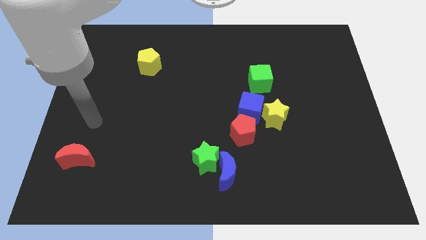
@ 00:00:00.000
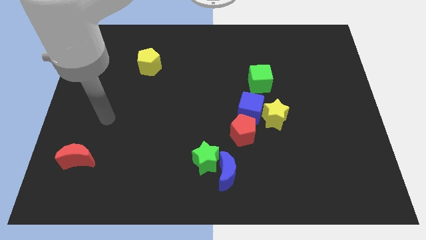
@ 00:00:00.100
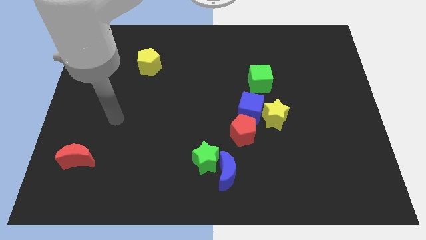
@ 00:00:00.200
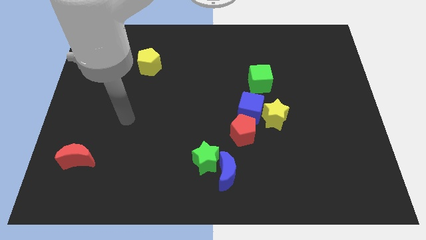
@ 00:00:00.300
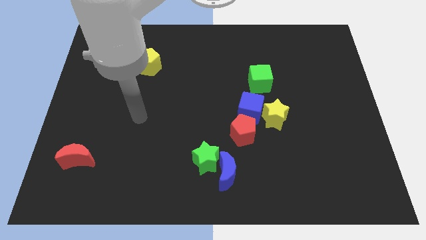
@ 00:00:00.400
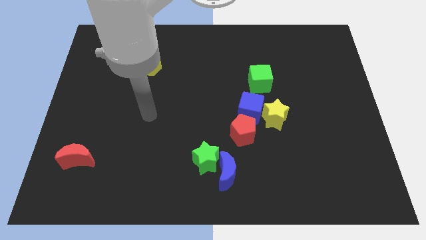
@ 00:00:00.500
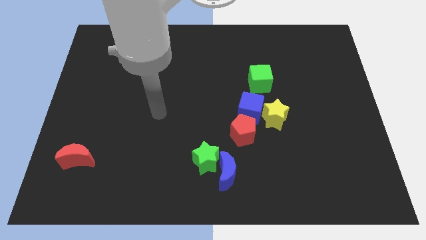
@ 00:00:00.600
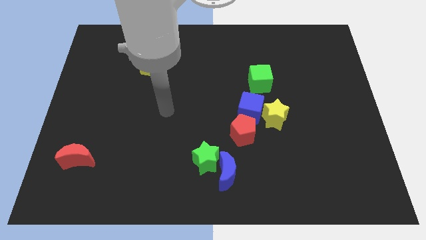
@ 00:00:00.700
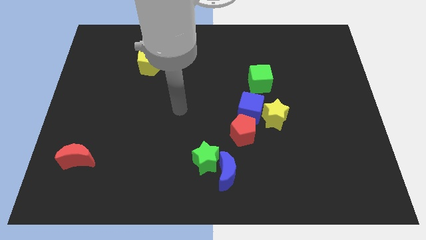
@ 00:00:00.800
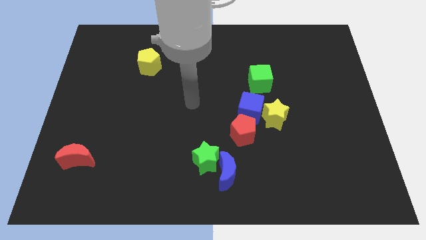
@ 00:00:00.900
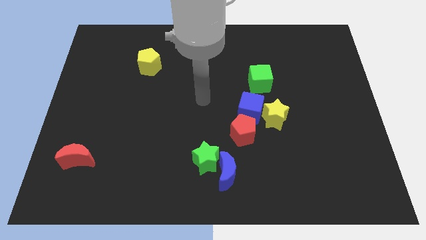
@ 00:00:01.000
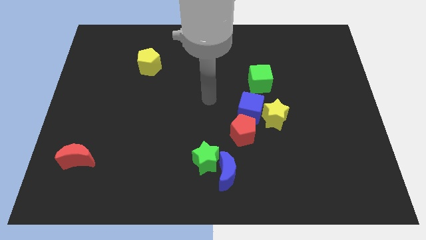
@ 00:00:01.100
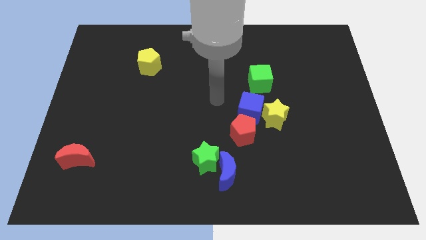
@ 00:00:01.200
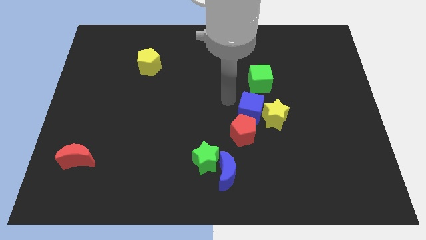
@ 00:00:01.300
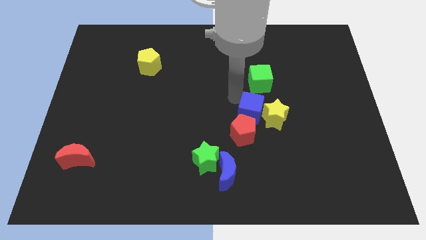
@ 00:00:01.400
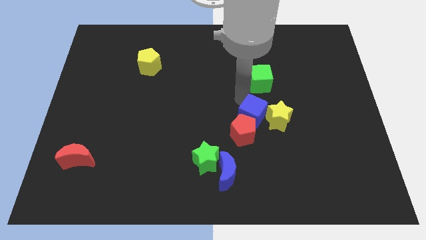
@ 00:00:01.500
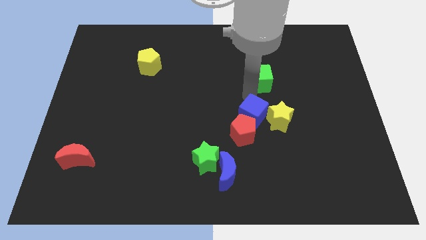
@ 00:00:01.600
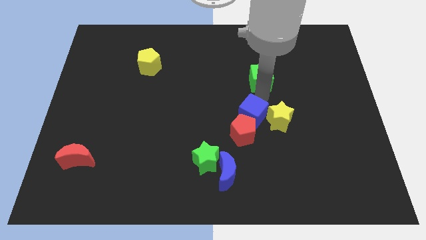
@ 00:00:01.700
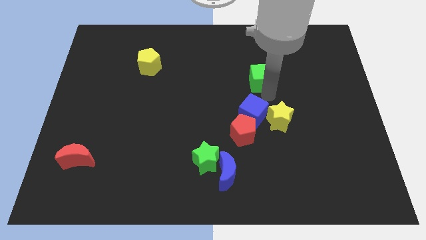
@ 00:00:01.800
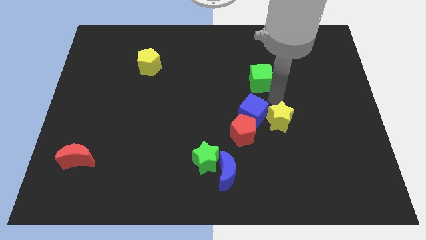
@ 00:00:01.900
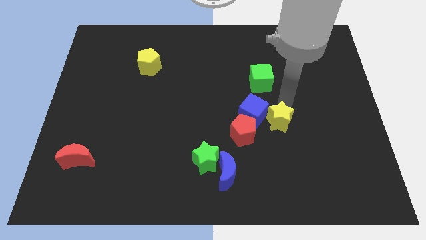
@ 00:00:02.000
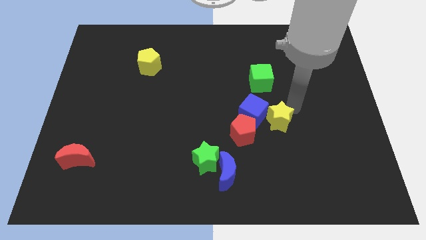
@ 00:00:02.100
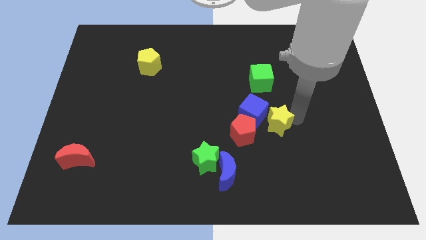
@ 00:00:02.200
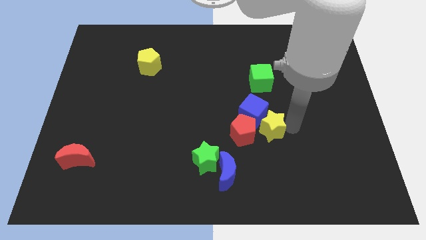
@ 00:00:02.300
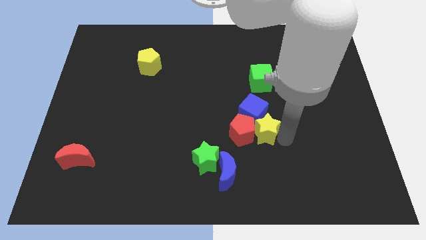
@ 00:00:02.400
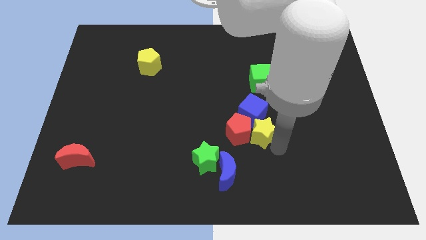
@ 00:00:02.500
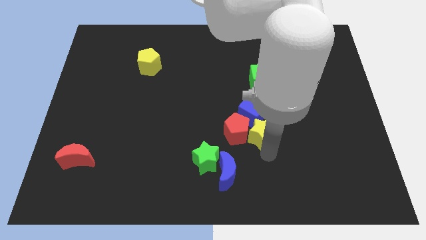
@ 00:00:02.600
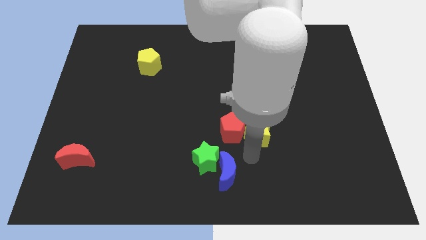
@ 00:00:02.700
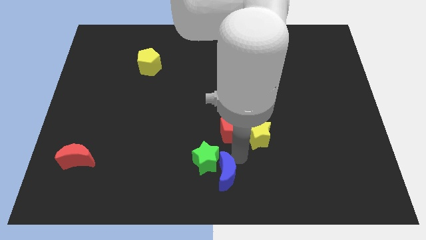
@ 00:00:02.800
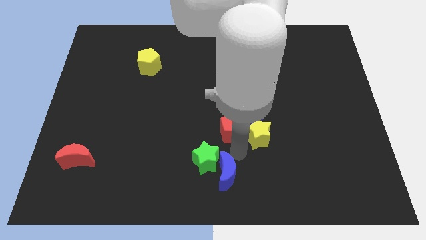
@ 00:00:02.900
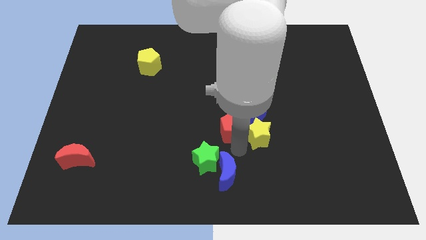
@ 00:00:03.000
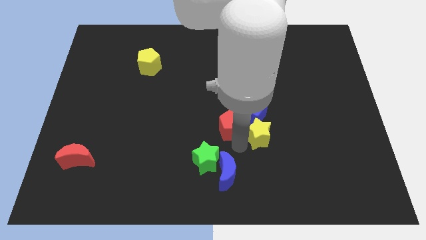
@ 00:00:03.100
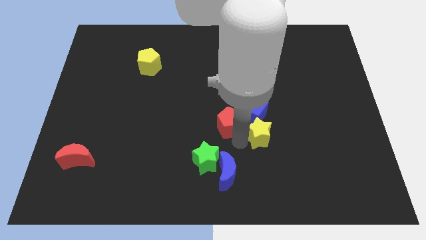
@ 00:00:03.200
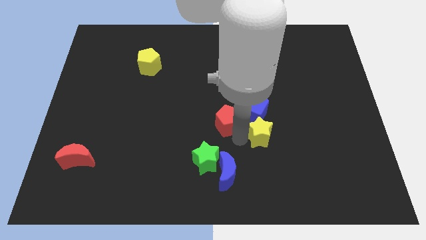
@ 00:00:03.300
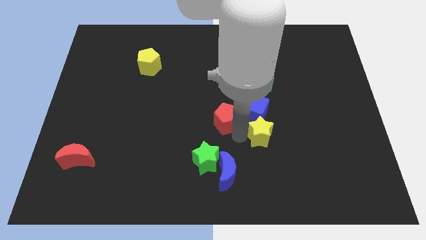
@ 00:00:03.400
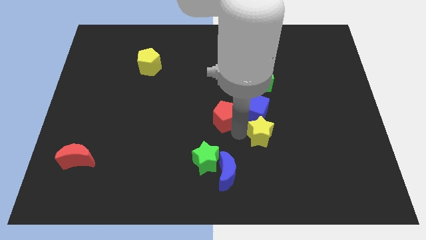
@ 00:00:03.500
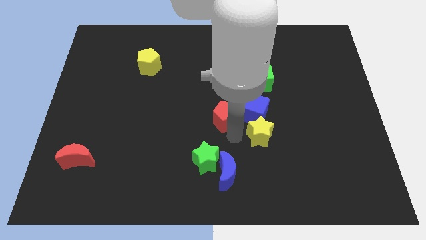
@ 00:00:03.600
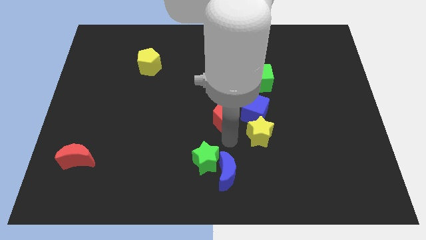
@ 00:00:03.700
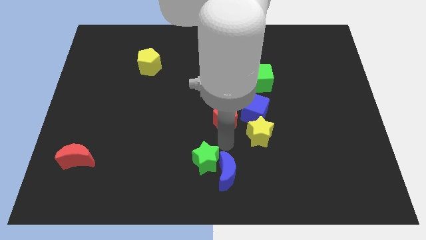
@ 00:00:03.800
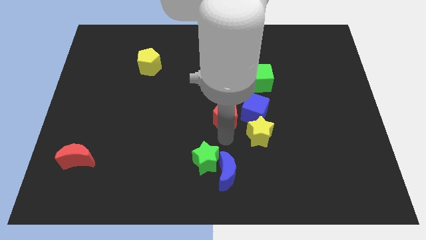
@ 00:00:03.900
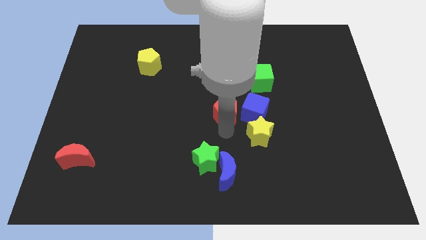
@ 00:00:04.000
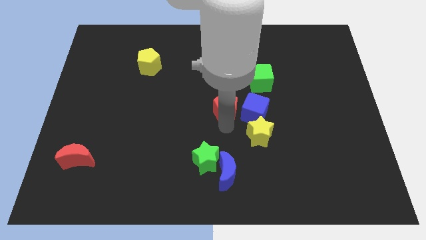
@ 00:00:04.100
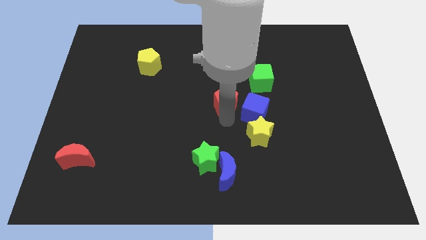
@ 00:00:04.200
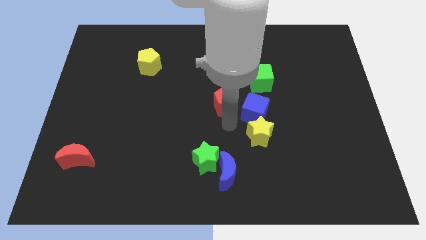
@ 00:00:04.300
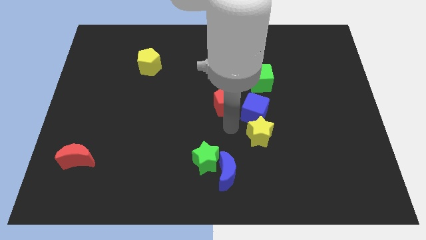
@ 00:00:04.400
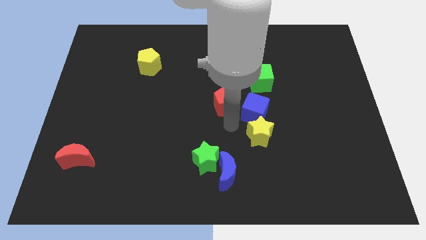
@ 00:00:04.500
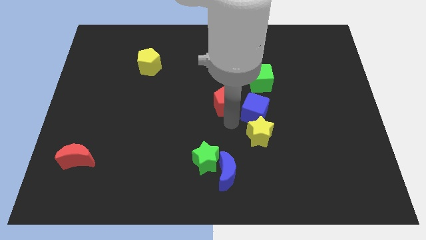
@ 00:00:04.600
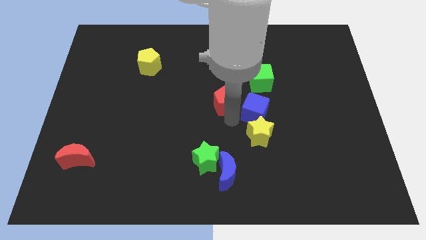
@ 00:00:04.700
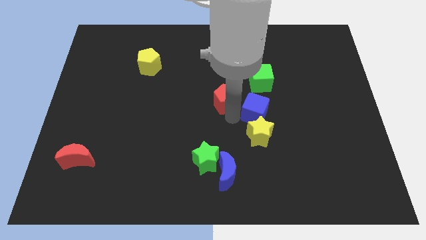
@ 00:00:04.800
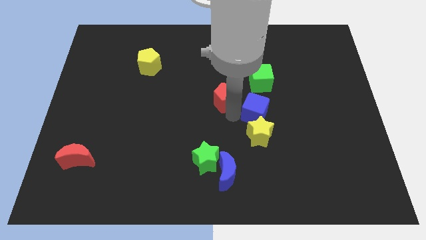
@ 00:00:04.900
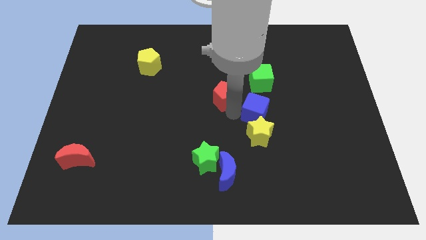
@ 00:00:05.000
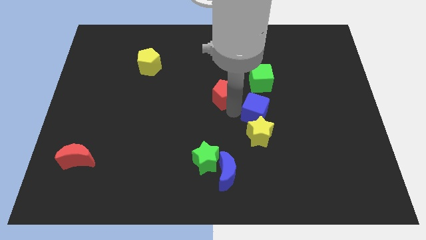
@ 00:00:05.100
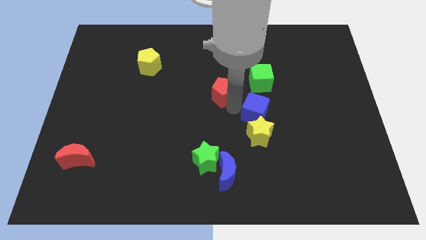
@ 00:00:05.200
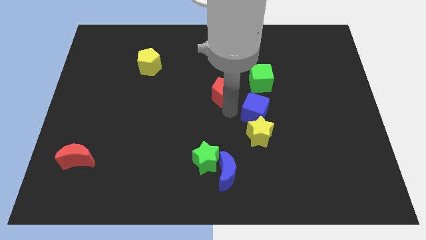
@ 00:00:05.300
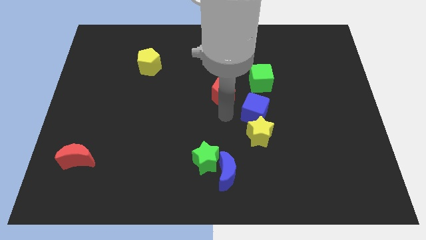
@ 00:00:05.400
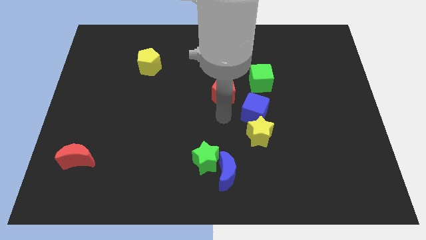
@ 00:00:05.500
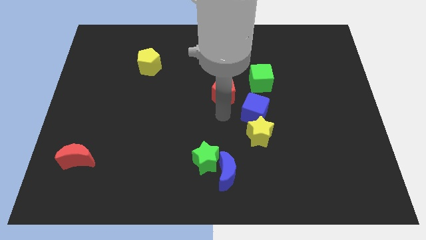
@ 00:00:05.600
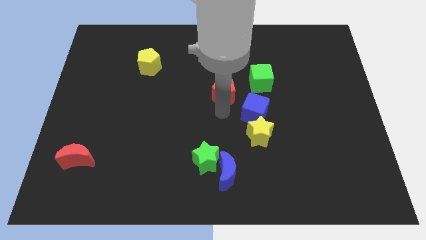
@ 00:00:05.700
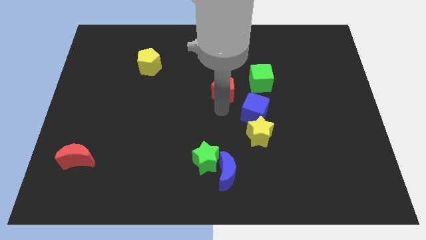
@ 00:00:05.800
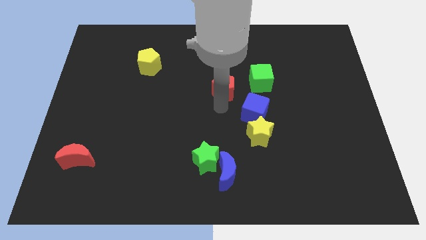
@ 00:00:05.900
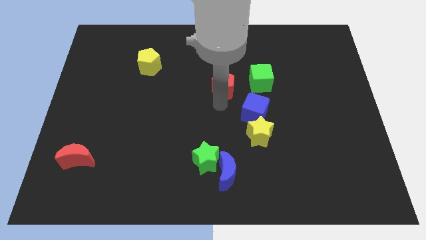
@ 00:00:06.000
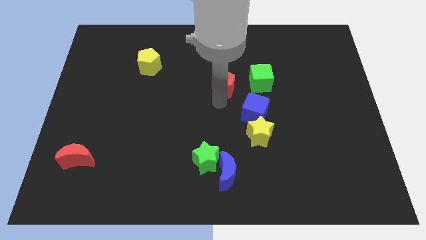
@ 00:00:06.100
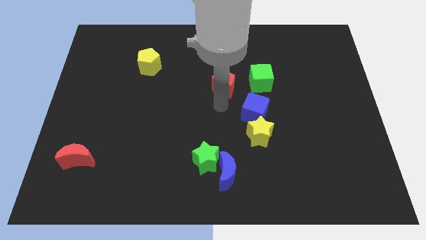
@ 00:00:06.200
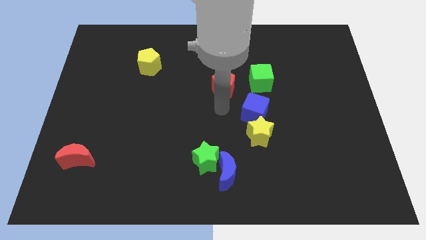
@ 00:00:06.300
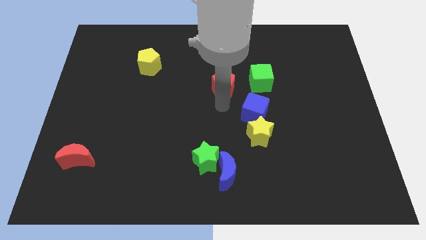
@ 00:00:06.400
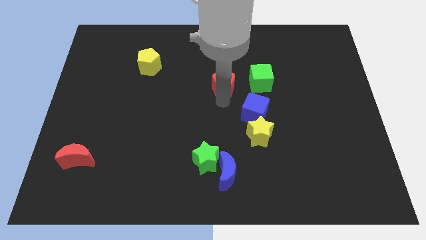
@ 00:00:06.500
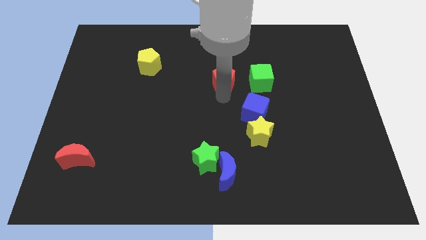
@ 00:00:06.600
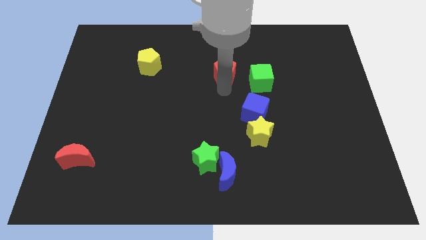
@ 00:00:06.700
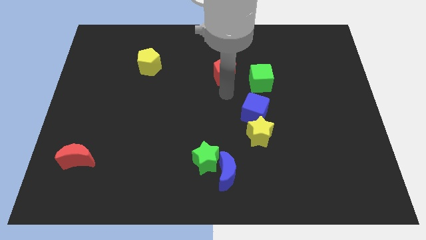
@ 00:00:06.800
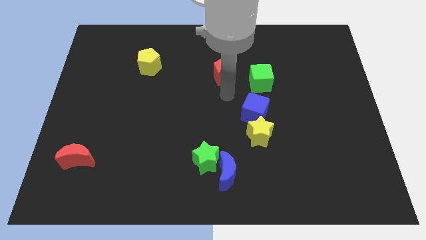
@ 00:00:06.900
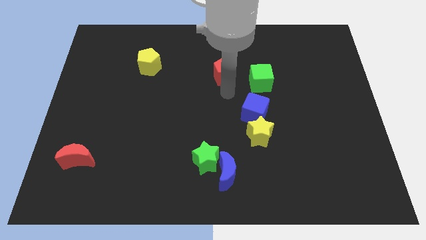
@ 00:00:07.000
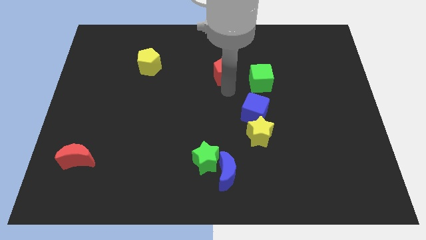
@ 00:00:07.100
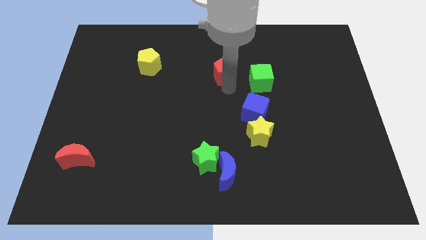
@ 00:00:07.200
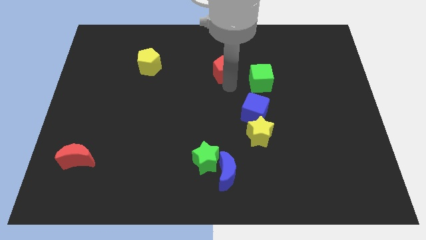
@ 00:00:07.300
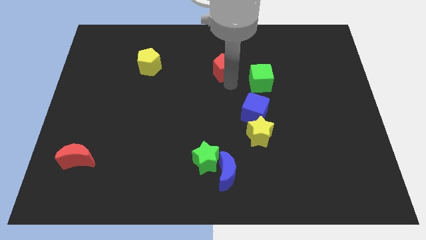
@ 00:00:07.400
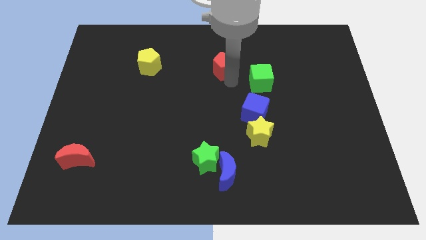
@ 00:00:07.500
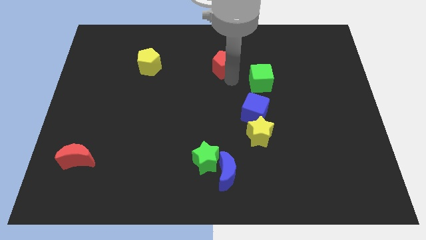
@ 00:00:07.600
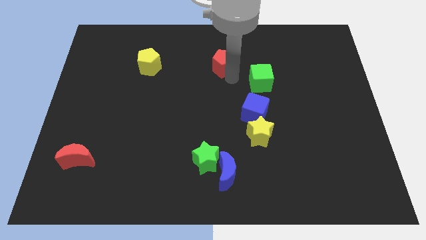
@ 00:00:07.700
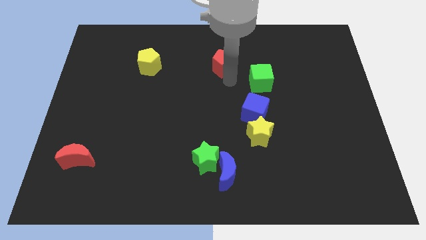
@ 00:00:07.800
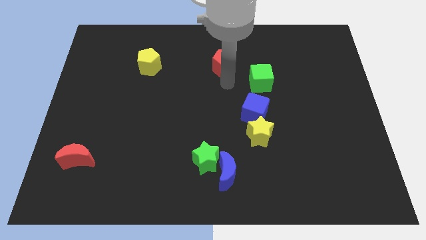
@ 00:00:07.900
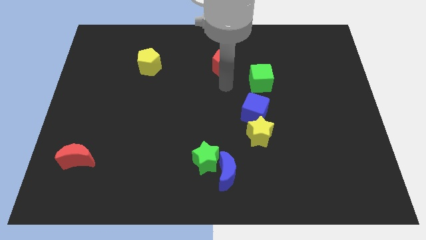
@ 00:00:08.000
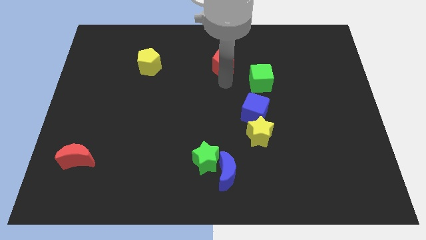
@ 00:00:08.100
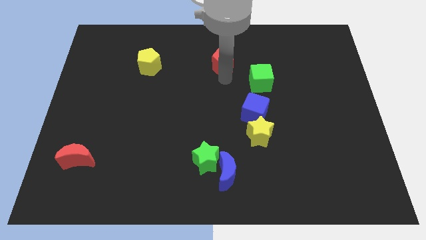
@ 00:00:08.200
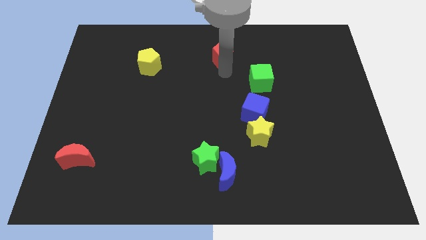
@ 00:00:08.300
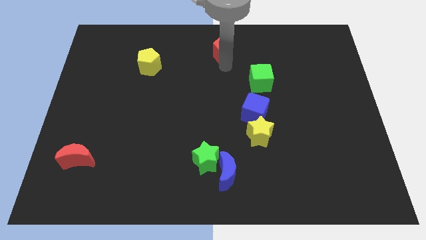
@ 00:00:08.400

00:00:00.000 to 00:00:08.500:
put the red pentagon to the top side
